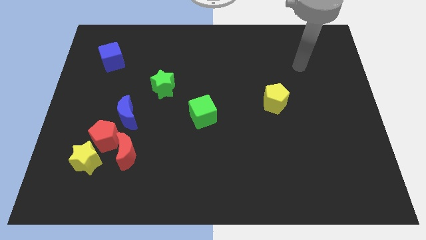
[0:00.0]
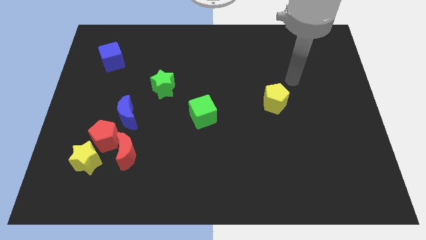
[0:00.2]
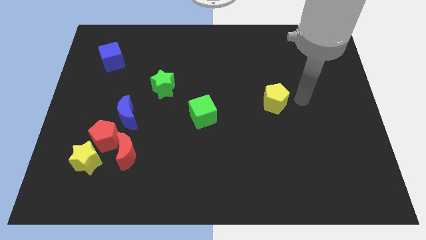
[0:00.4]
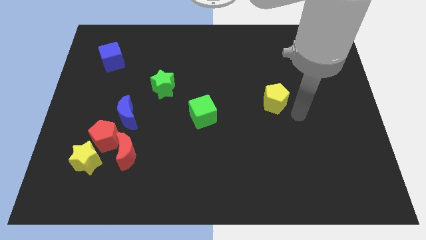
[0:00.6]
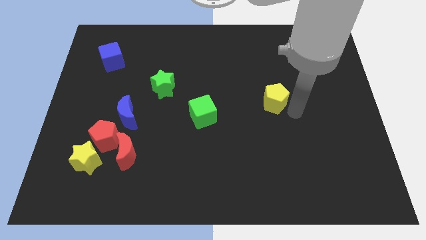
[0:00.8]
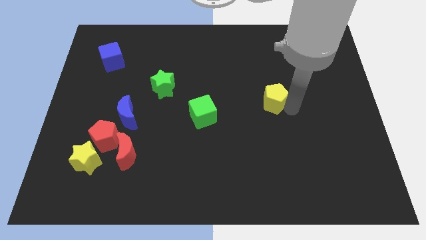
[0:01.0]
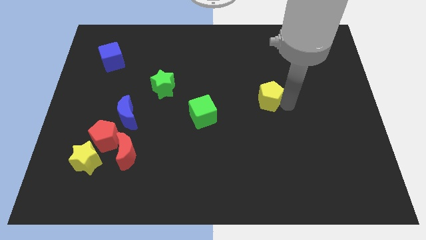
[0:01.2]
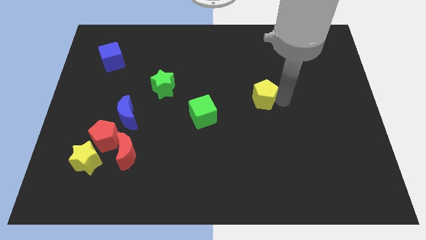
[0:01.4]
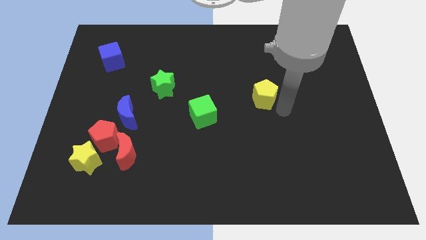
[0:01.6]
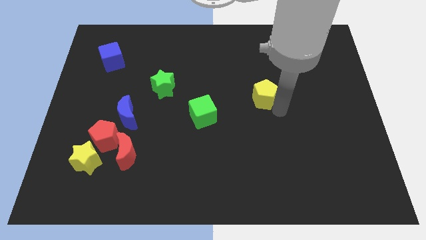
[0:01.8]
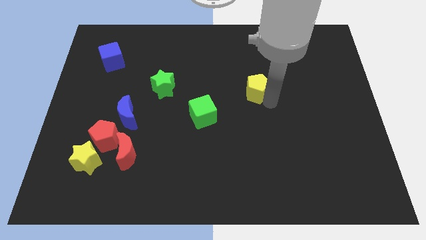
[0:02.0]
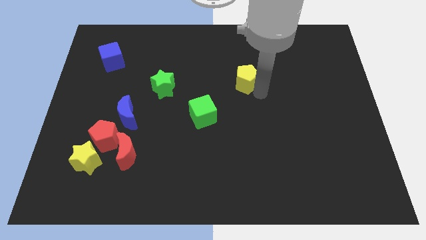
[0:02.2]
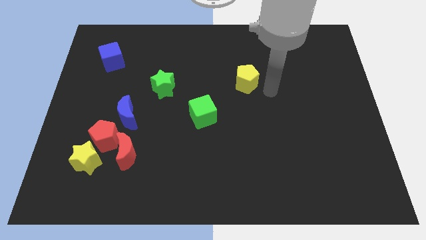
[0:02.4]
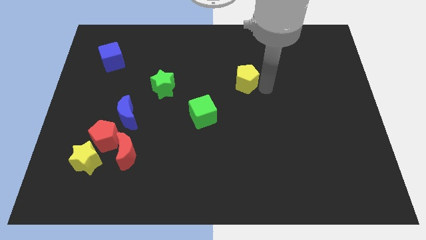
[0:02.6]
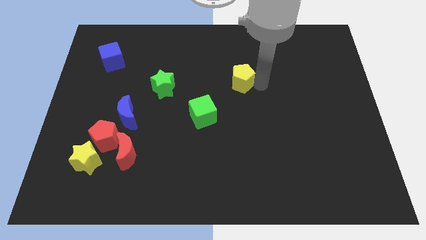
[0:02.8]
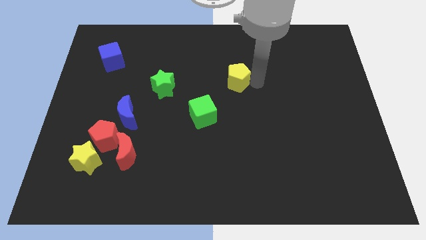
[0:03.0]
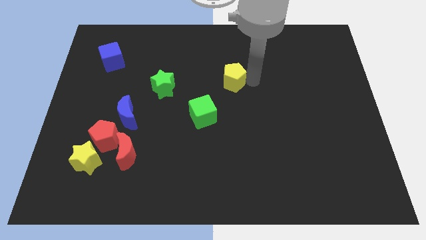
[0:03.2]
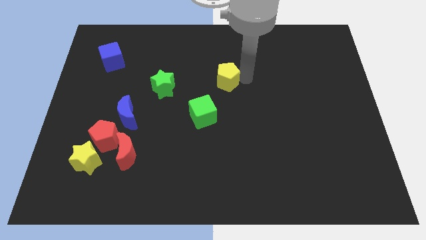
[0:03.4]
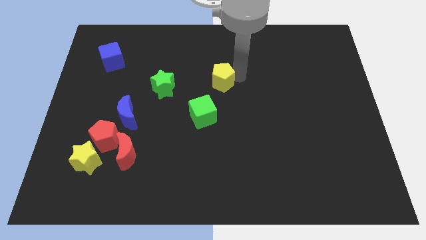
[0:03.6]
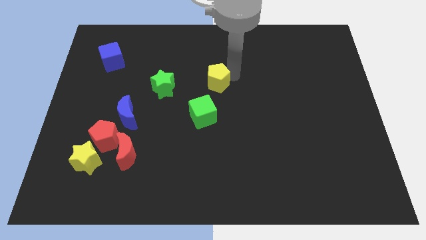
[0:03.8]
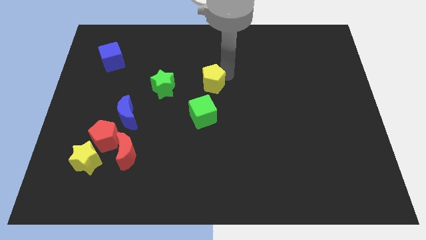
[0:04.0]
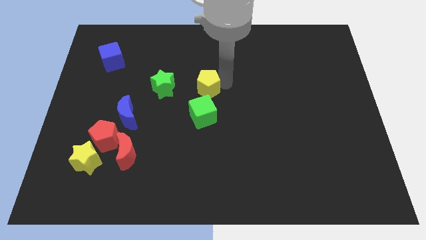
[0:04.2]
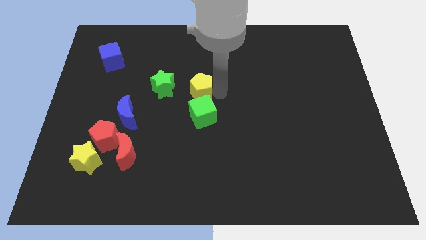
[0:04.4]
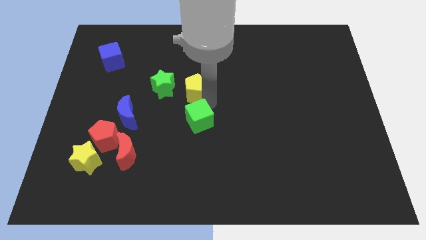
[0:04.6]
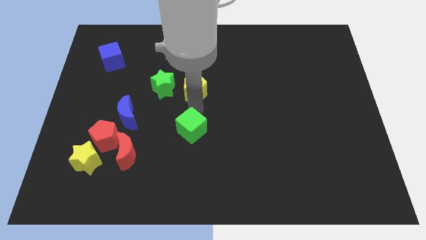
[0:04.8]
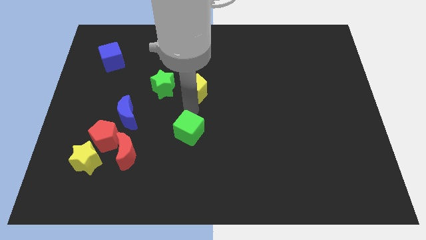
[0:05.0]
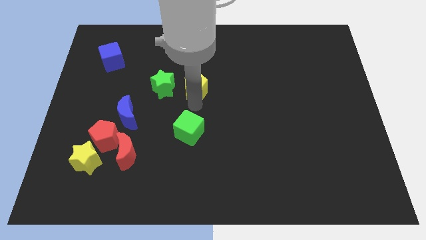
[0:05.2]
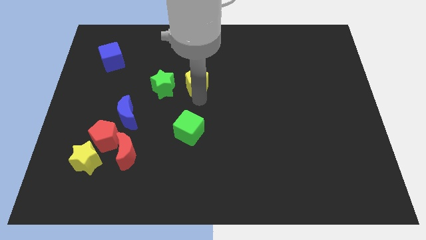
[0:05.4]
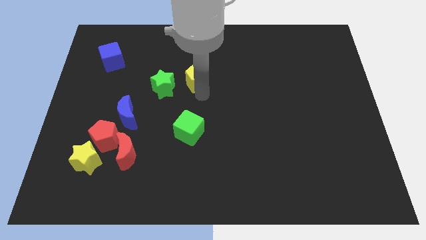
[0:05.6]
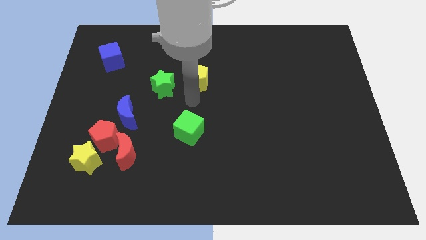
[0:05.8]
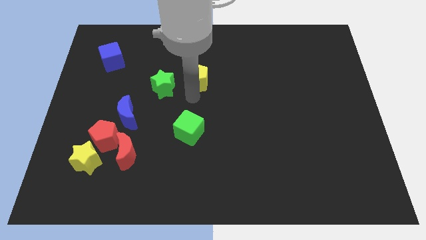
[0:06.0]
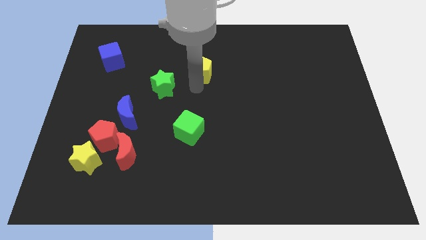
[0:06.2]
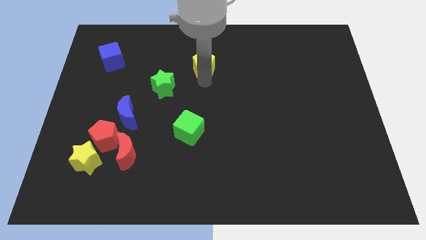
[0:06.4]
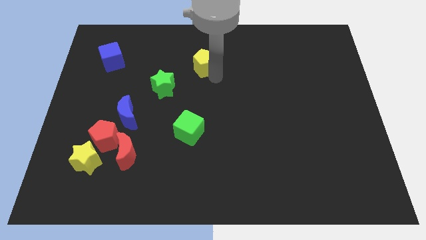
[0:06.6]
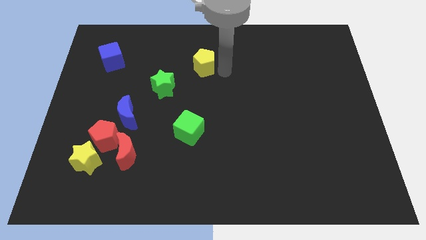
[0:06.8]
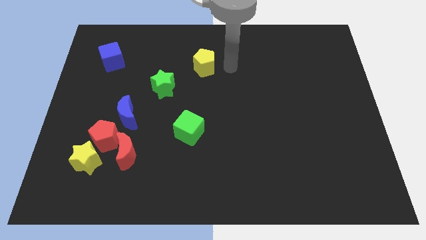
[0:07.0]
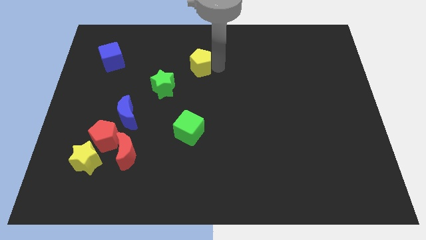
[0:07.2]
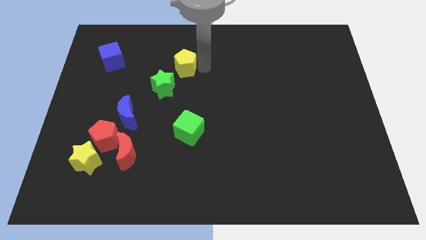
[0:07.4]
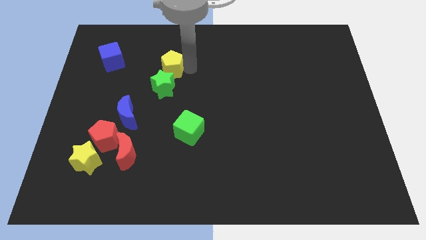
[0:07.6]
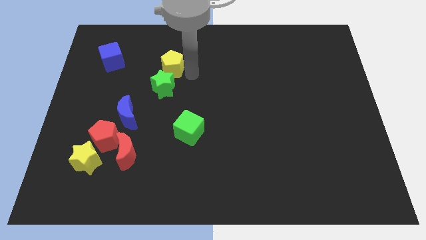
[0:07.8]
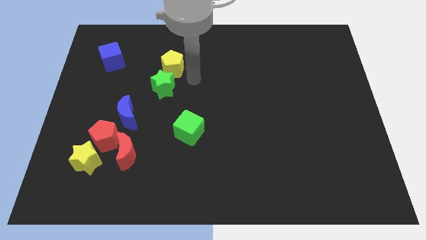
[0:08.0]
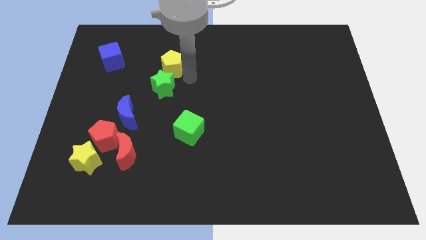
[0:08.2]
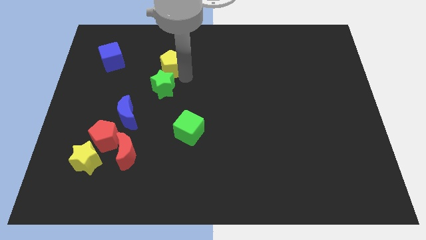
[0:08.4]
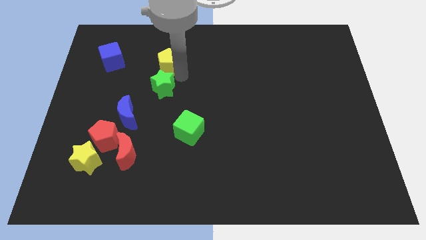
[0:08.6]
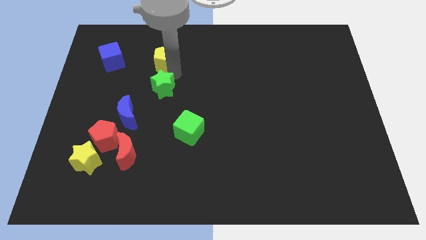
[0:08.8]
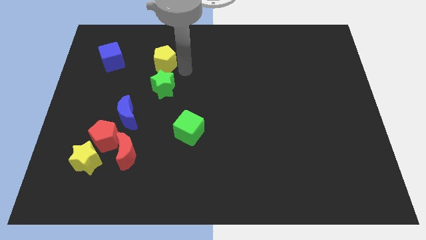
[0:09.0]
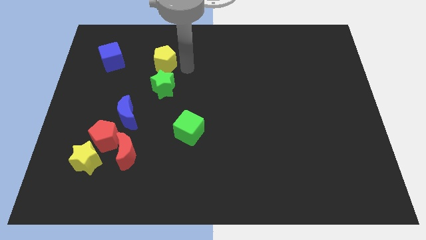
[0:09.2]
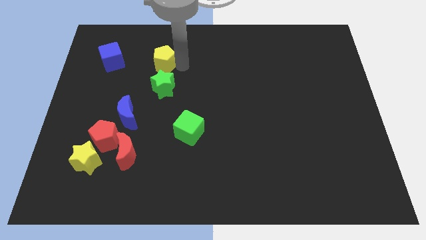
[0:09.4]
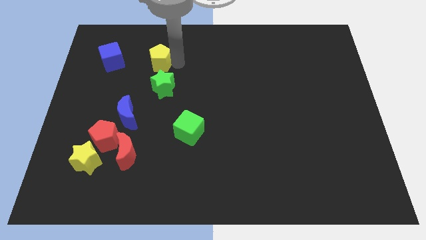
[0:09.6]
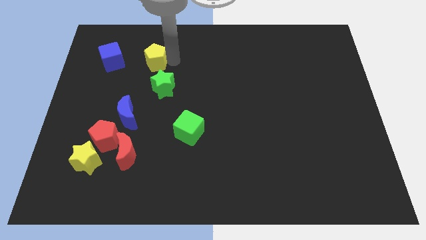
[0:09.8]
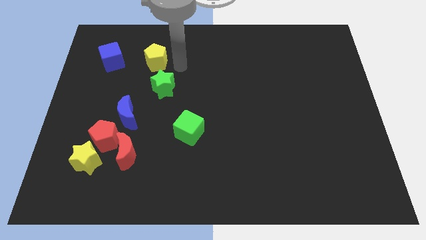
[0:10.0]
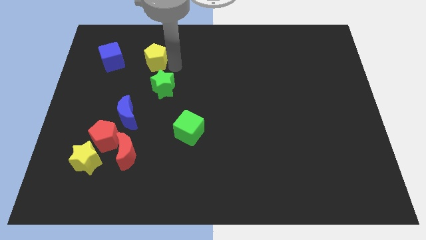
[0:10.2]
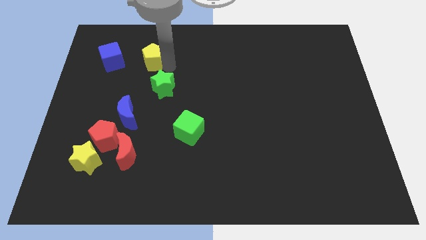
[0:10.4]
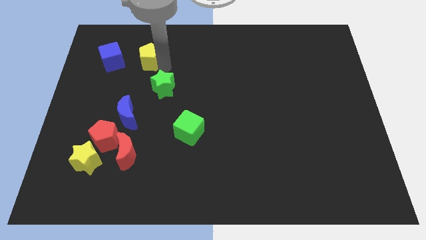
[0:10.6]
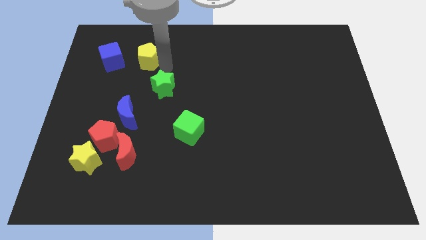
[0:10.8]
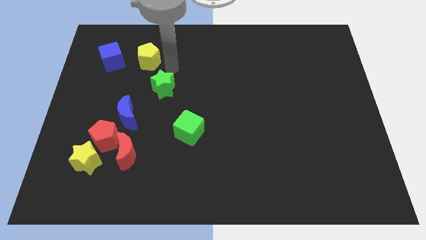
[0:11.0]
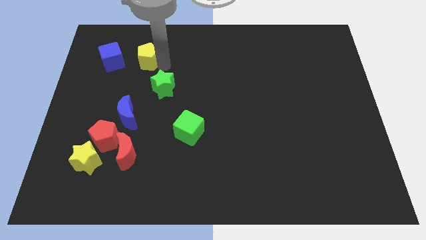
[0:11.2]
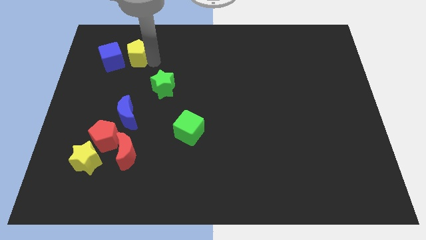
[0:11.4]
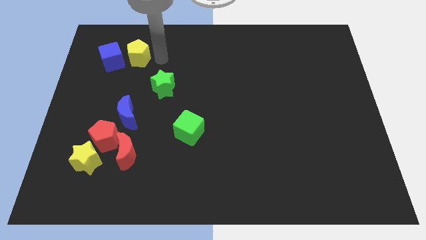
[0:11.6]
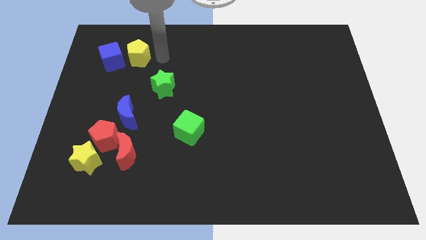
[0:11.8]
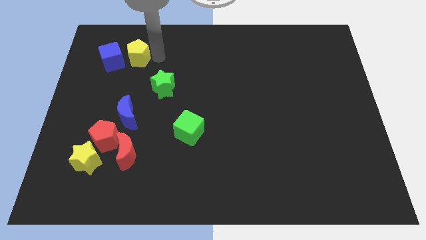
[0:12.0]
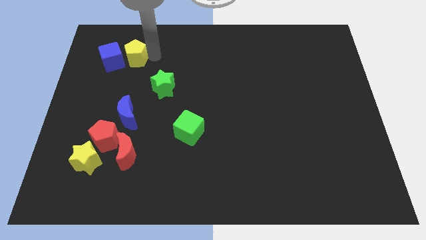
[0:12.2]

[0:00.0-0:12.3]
push the yellow pentagon close to the blue cube

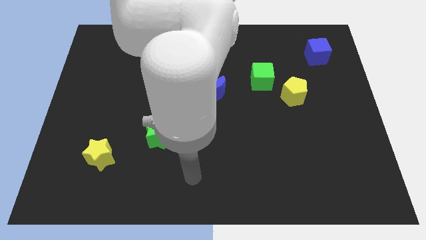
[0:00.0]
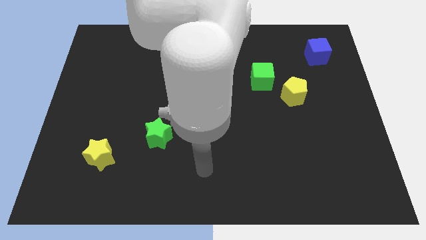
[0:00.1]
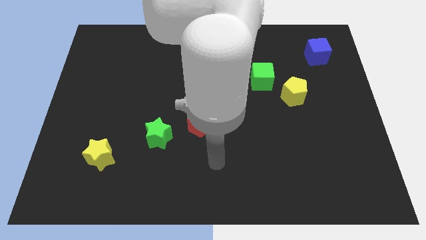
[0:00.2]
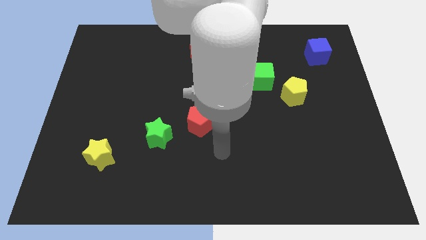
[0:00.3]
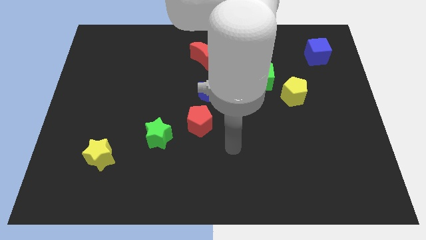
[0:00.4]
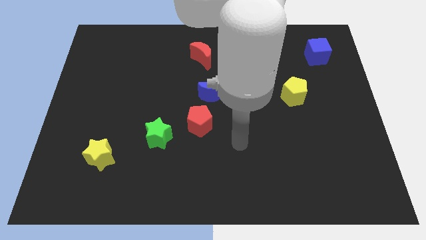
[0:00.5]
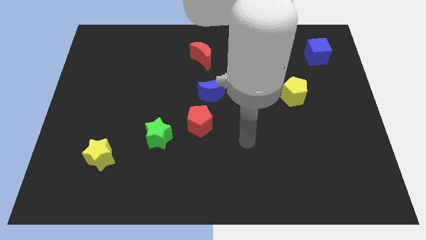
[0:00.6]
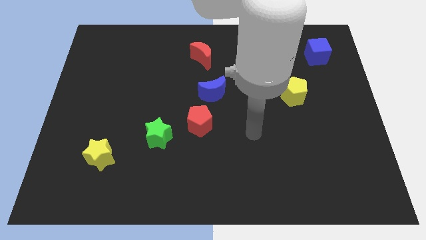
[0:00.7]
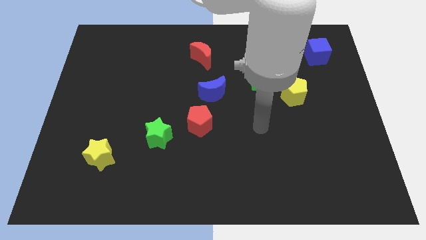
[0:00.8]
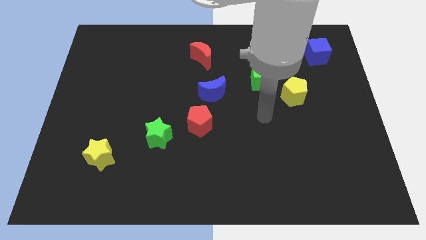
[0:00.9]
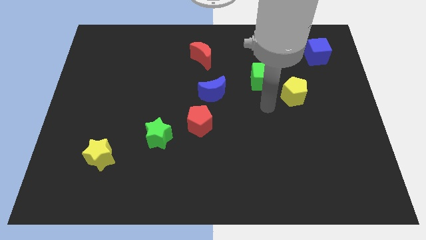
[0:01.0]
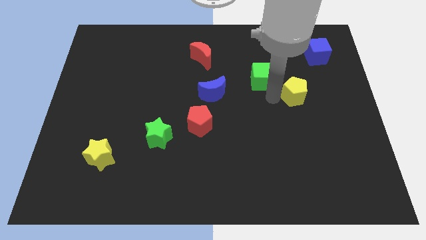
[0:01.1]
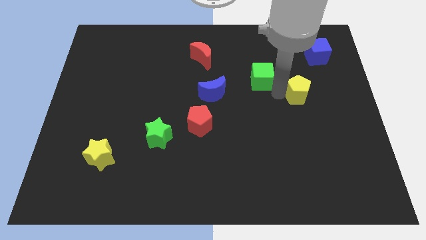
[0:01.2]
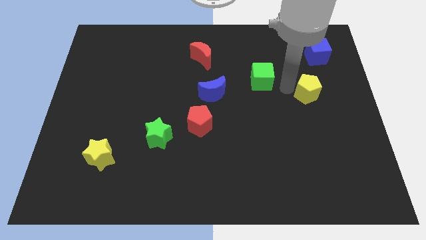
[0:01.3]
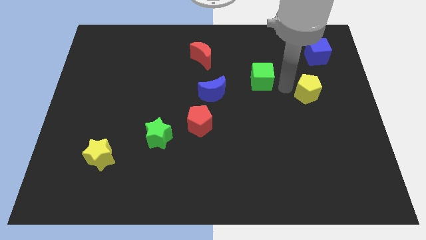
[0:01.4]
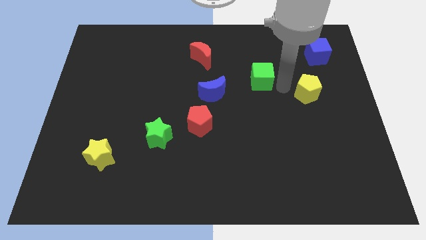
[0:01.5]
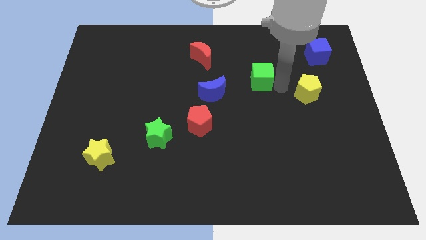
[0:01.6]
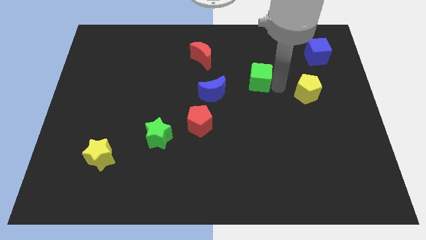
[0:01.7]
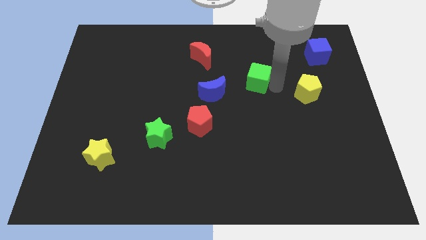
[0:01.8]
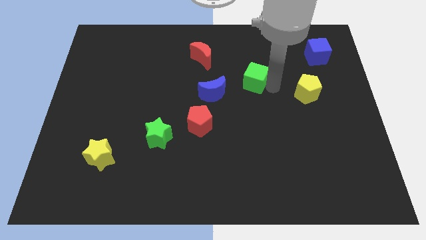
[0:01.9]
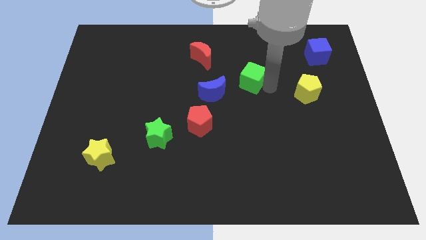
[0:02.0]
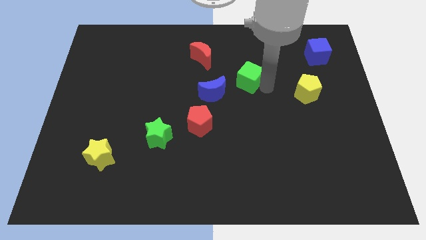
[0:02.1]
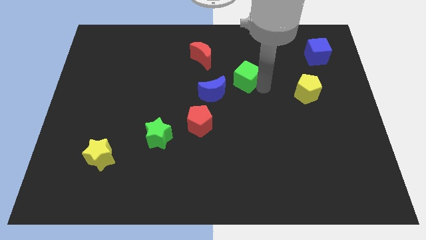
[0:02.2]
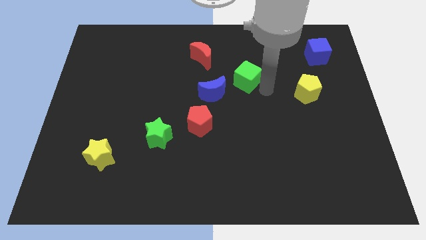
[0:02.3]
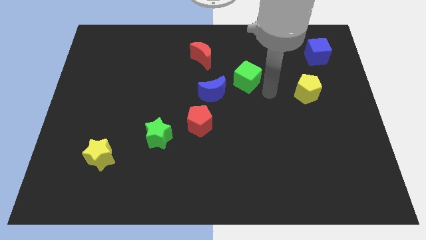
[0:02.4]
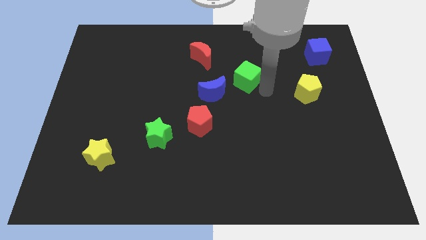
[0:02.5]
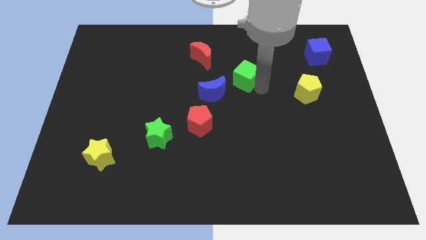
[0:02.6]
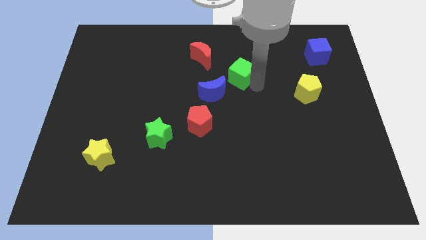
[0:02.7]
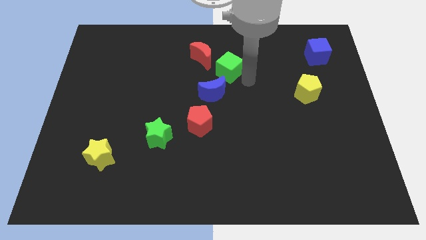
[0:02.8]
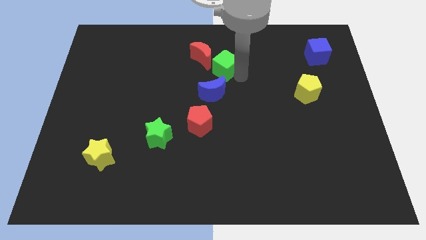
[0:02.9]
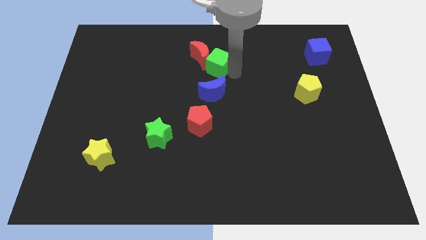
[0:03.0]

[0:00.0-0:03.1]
push the green cube next to the red moon
